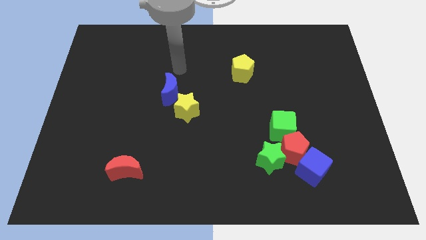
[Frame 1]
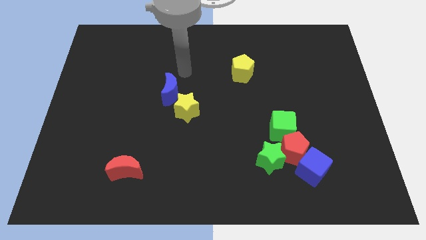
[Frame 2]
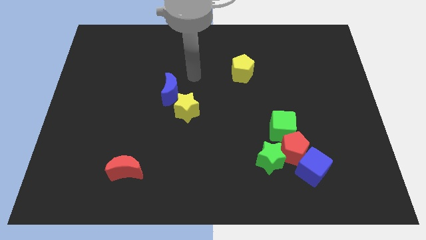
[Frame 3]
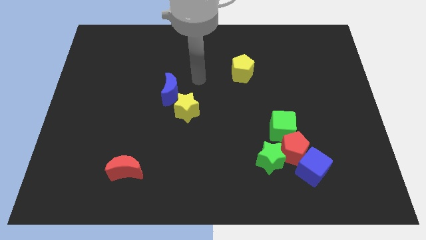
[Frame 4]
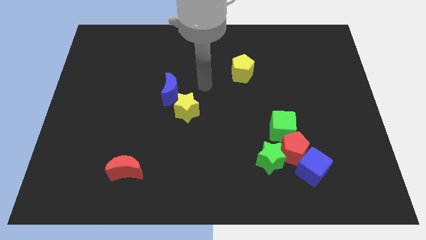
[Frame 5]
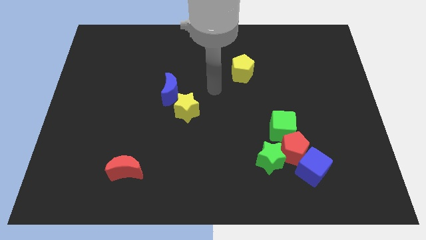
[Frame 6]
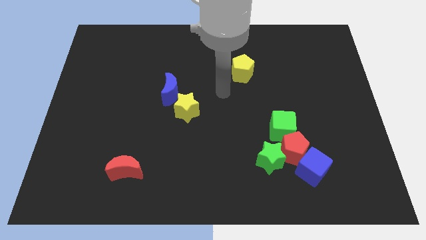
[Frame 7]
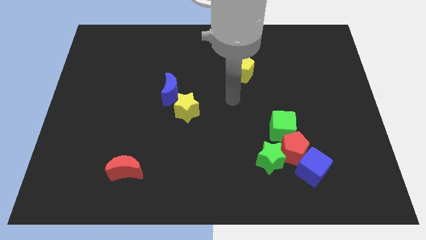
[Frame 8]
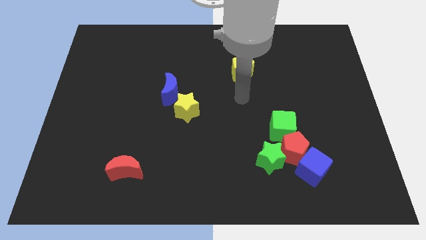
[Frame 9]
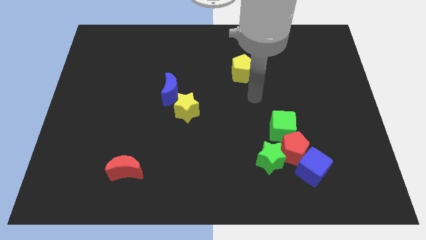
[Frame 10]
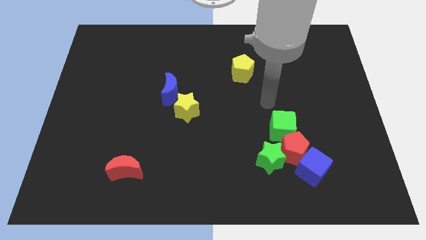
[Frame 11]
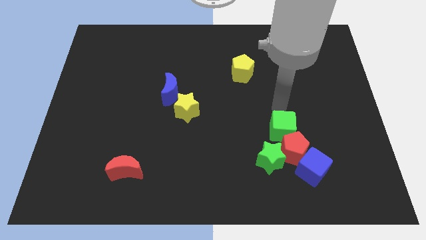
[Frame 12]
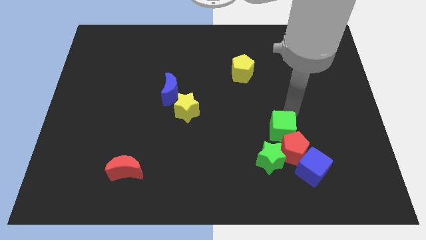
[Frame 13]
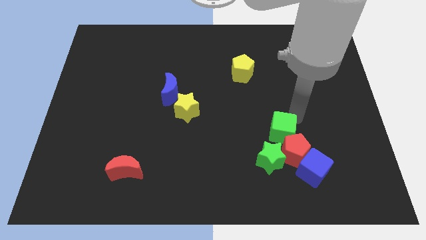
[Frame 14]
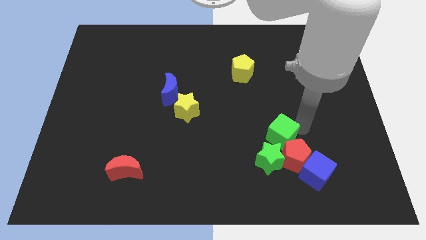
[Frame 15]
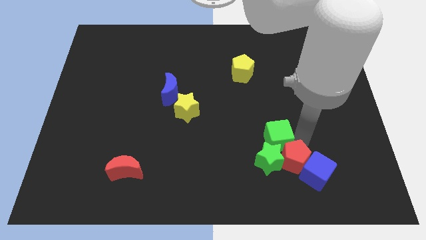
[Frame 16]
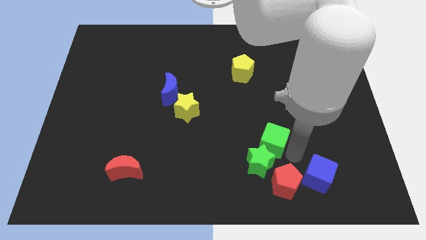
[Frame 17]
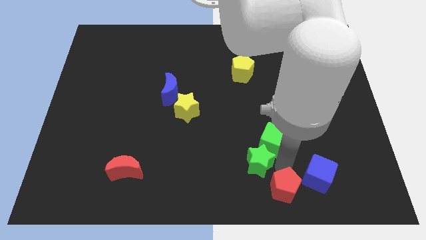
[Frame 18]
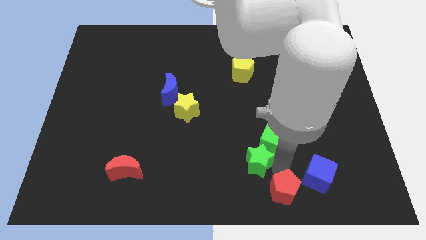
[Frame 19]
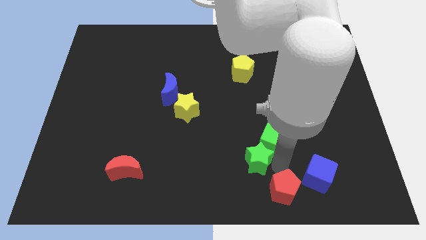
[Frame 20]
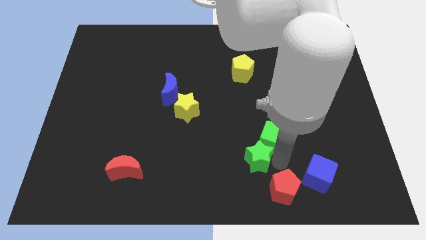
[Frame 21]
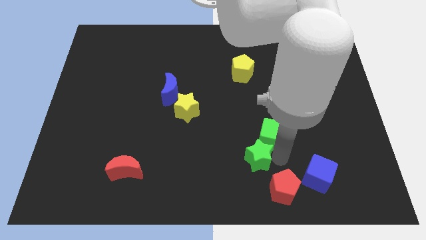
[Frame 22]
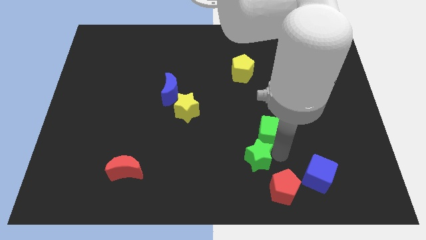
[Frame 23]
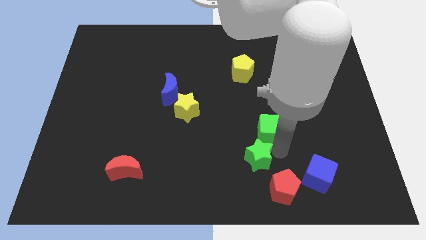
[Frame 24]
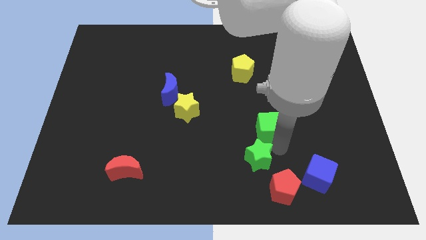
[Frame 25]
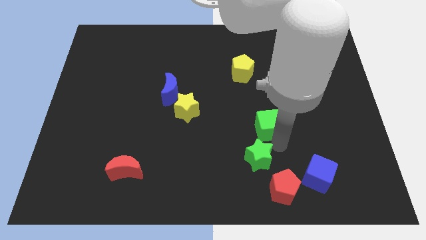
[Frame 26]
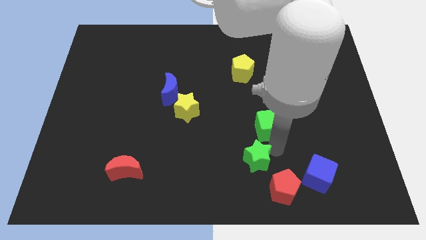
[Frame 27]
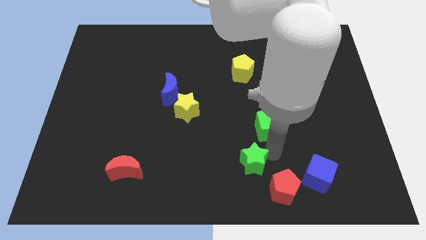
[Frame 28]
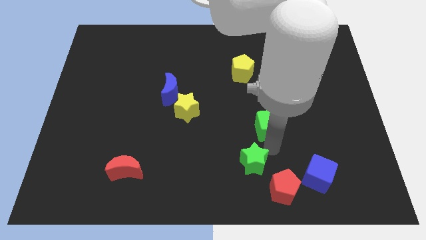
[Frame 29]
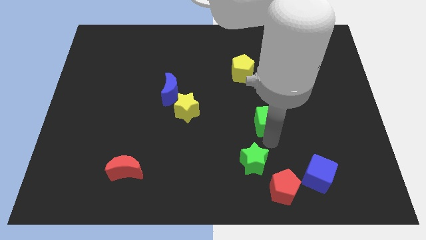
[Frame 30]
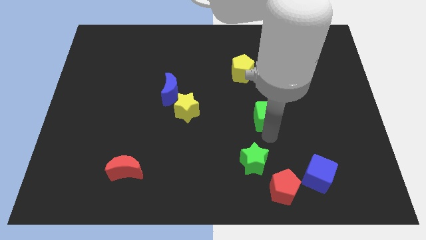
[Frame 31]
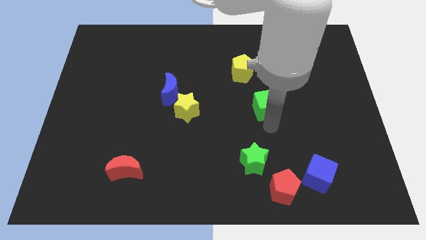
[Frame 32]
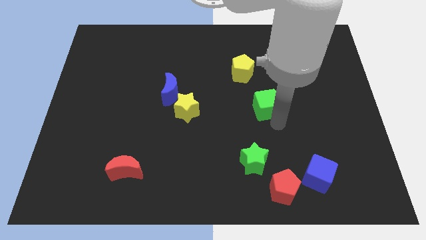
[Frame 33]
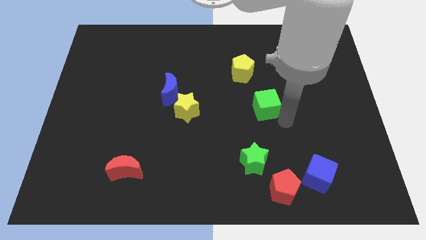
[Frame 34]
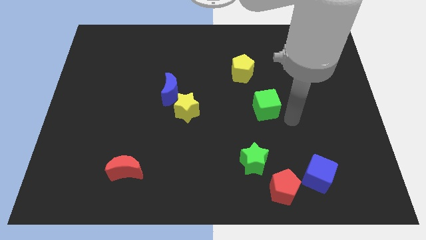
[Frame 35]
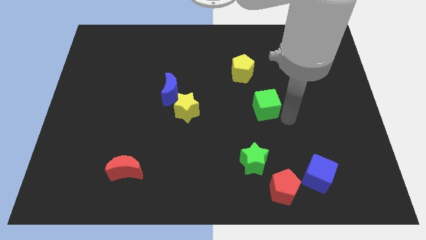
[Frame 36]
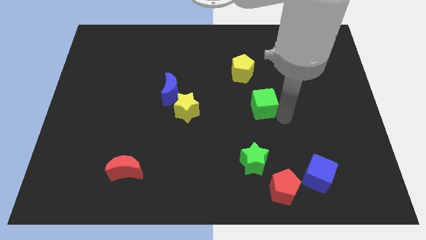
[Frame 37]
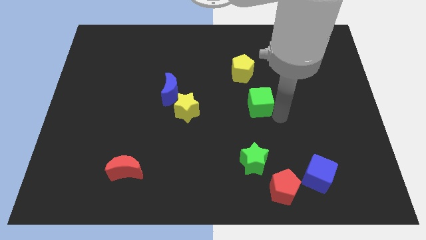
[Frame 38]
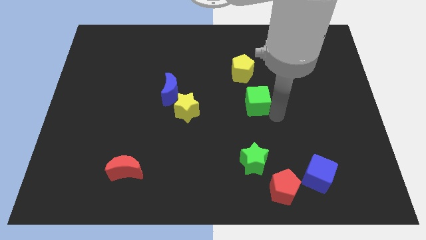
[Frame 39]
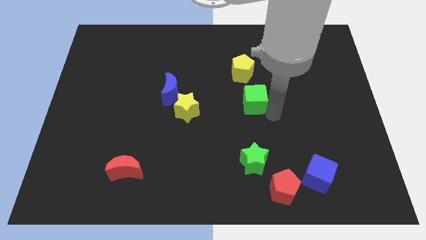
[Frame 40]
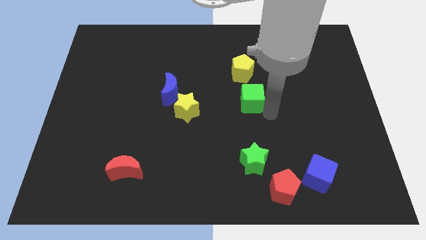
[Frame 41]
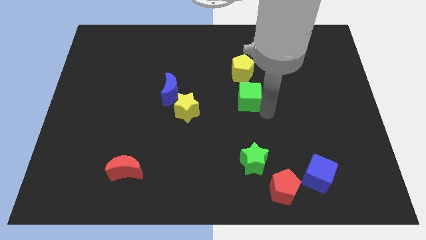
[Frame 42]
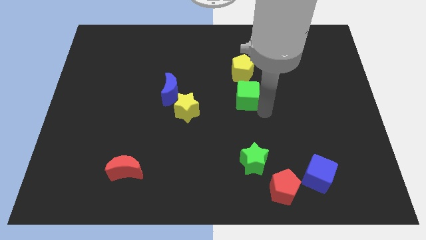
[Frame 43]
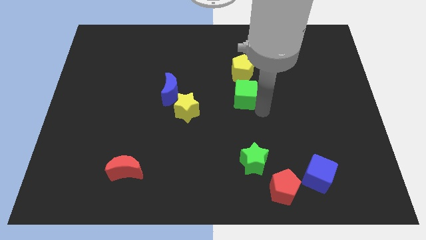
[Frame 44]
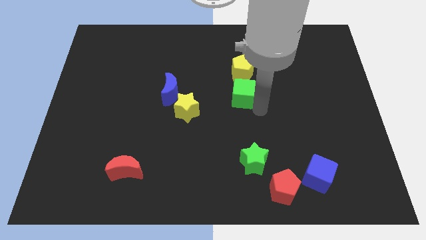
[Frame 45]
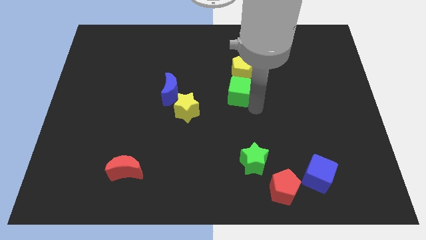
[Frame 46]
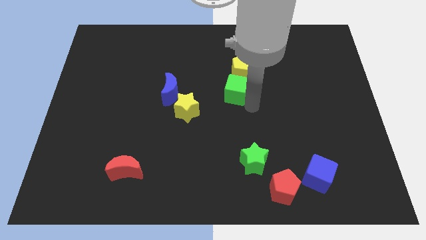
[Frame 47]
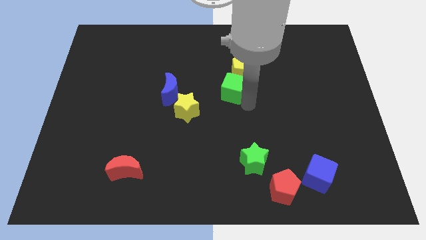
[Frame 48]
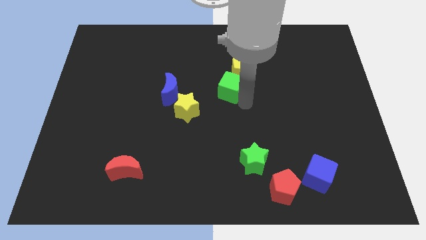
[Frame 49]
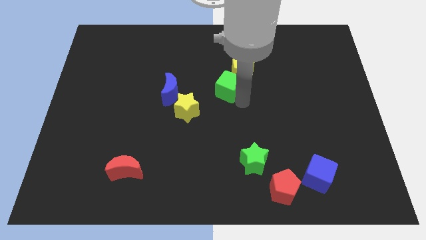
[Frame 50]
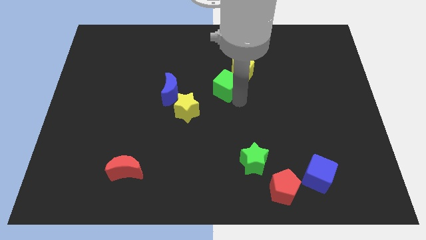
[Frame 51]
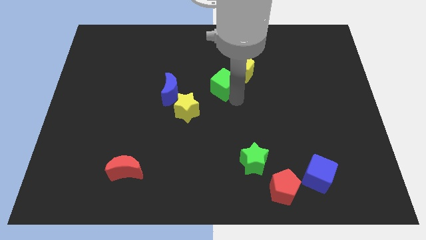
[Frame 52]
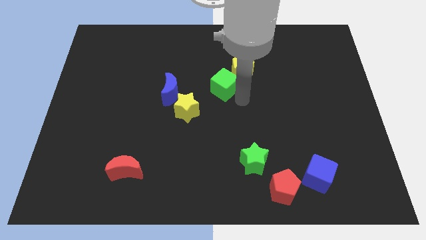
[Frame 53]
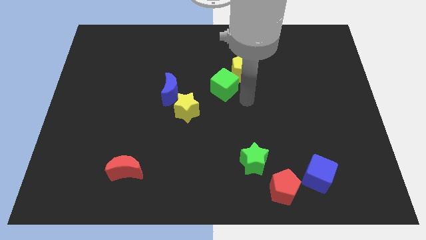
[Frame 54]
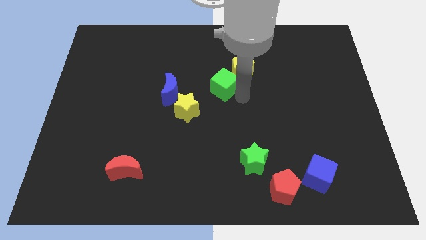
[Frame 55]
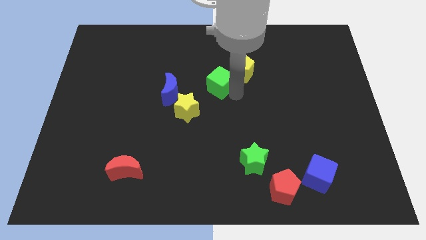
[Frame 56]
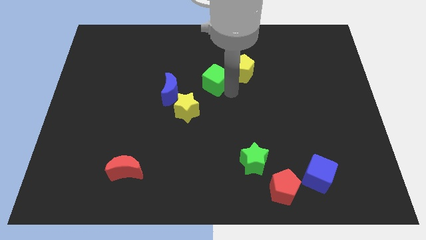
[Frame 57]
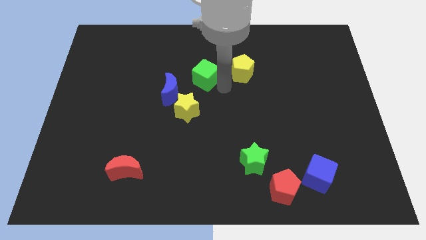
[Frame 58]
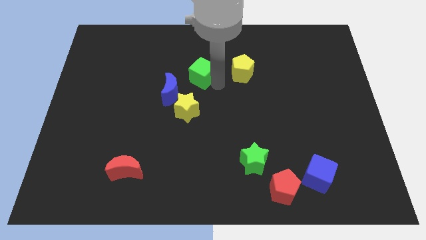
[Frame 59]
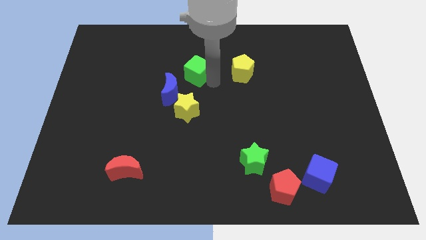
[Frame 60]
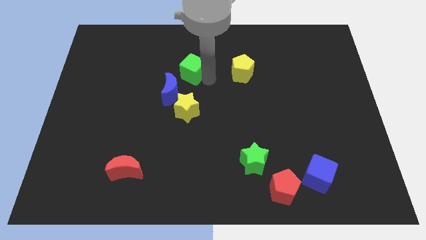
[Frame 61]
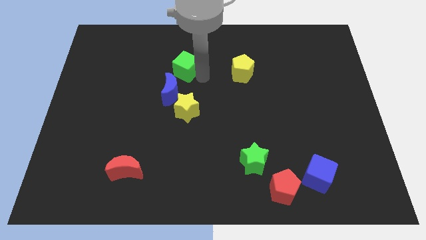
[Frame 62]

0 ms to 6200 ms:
push the green cube above the blue moon

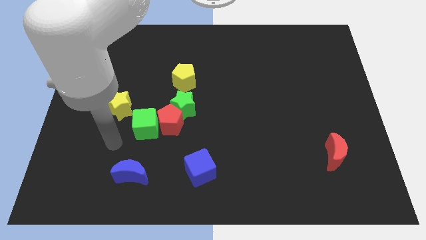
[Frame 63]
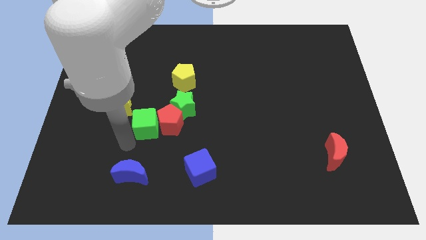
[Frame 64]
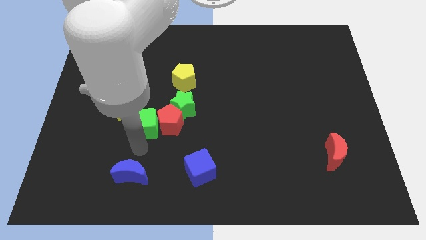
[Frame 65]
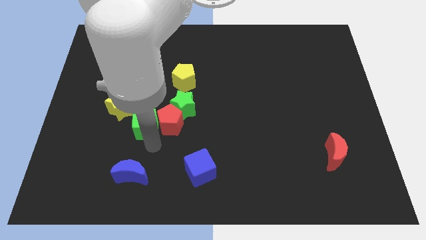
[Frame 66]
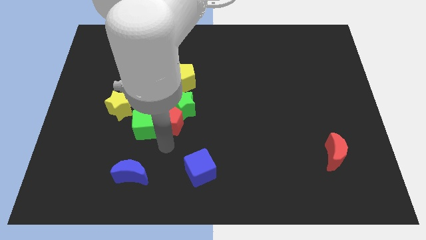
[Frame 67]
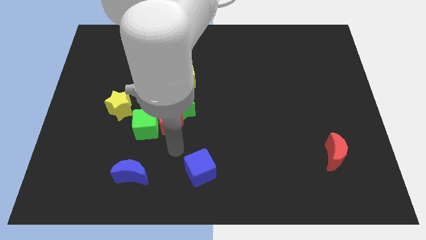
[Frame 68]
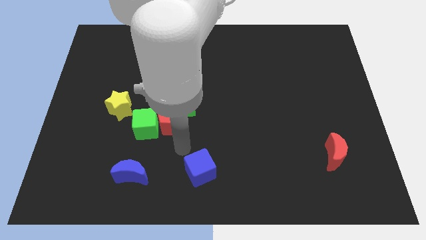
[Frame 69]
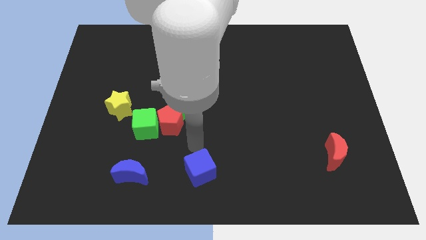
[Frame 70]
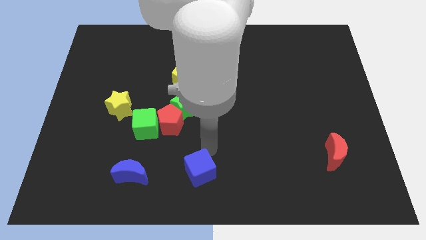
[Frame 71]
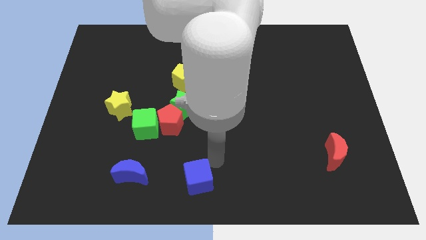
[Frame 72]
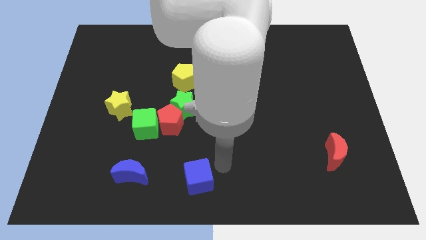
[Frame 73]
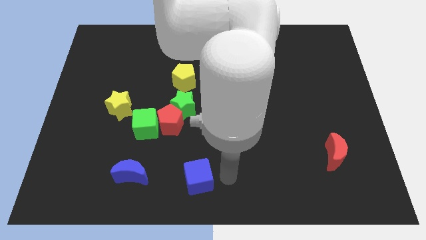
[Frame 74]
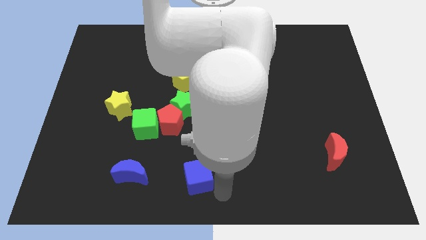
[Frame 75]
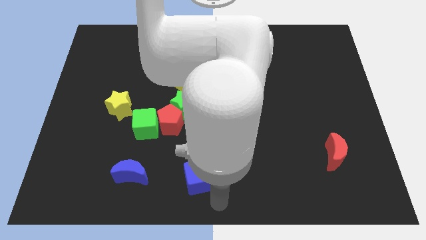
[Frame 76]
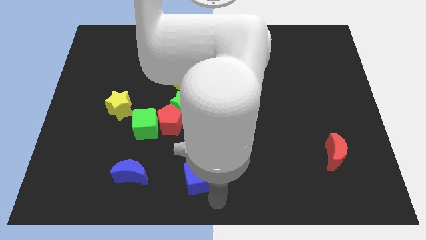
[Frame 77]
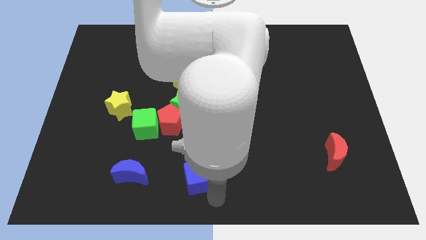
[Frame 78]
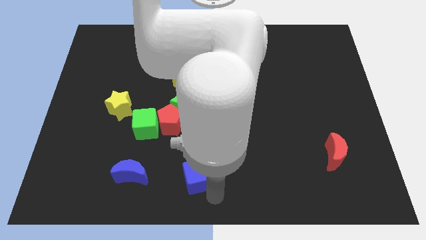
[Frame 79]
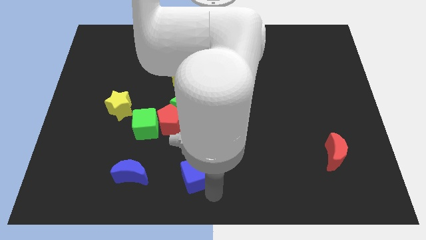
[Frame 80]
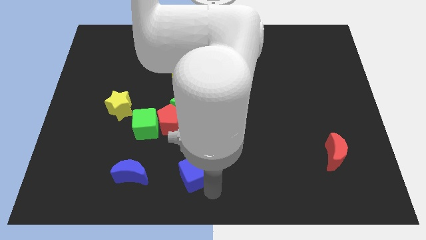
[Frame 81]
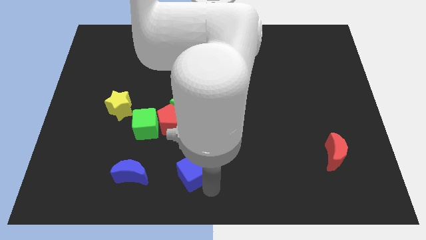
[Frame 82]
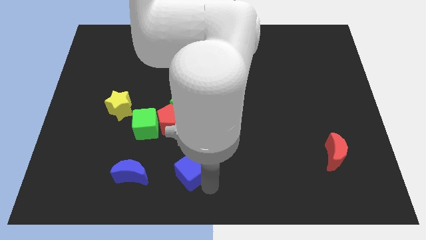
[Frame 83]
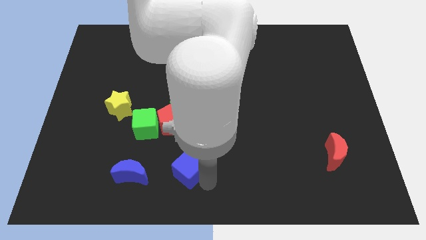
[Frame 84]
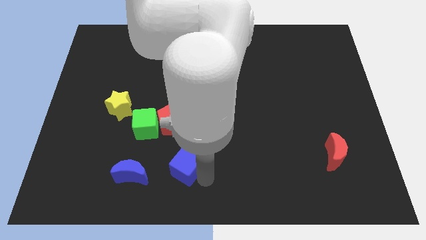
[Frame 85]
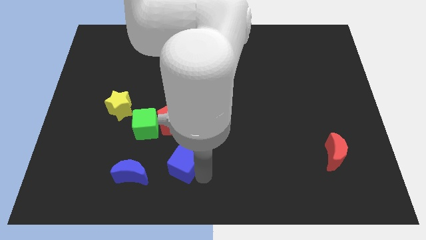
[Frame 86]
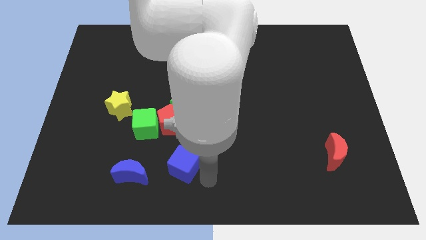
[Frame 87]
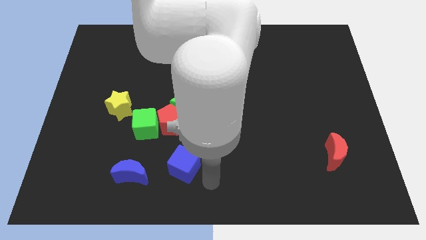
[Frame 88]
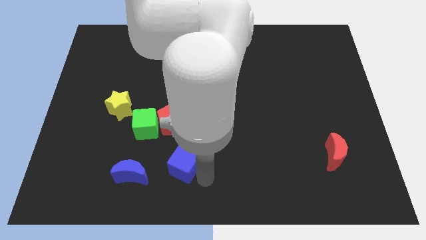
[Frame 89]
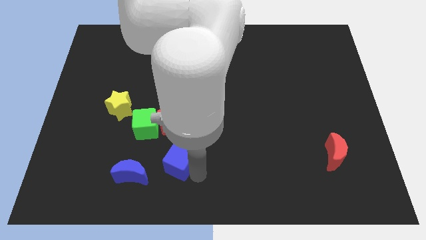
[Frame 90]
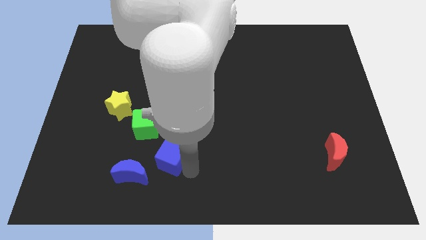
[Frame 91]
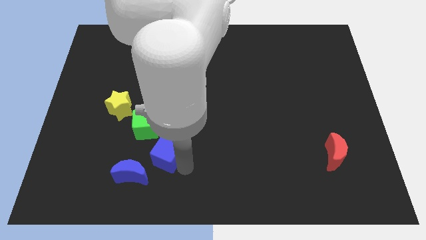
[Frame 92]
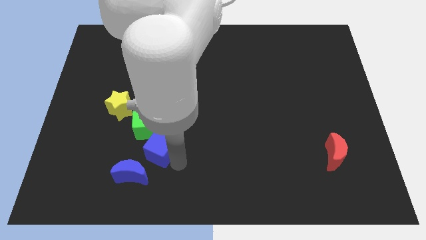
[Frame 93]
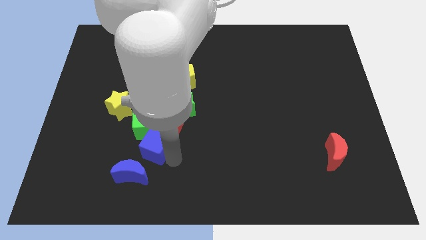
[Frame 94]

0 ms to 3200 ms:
push the blue cube to the top side of the blue moon
